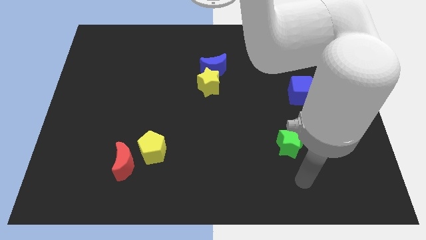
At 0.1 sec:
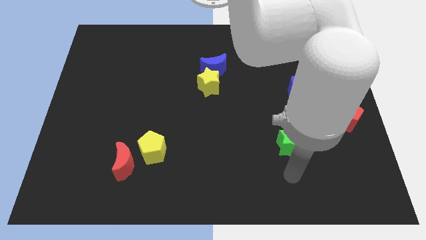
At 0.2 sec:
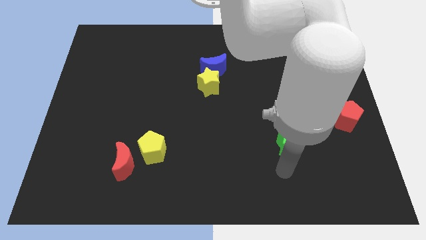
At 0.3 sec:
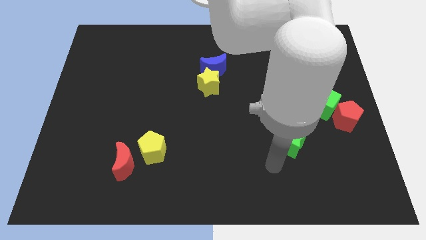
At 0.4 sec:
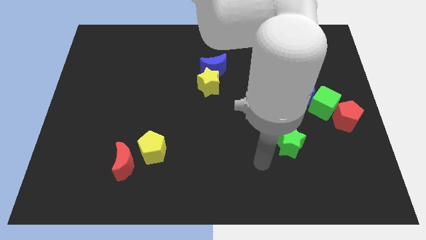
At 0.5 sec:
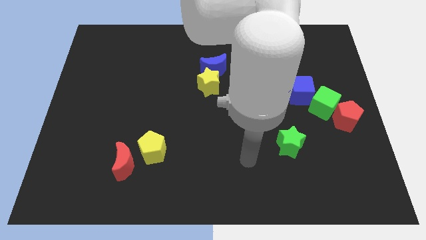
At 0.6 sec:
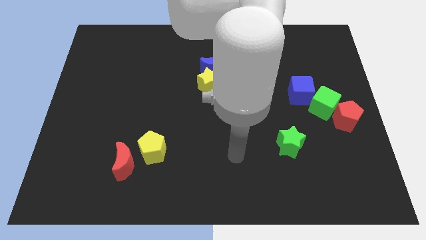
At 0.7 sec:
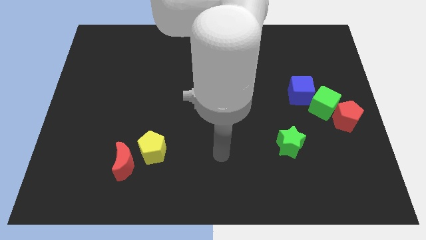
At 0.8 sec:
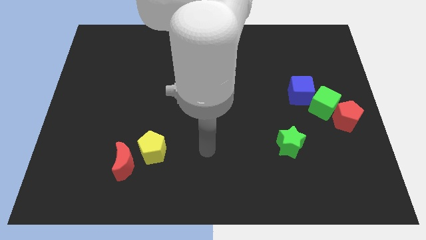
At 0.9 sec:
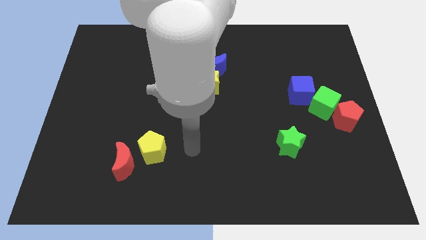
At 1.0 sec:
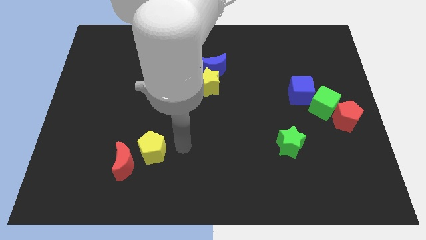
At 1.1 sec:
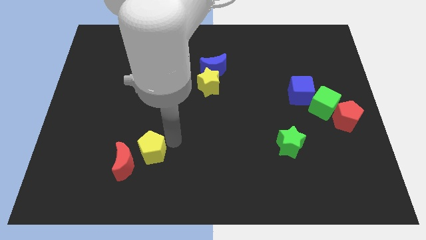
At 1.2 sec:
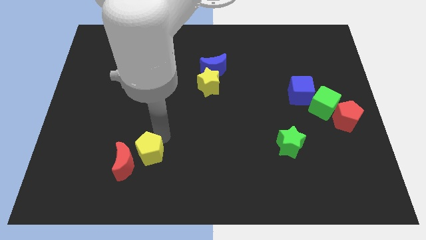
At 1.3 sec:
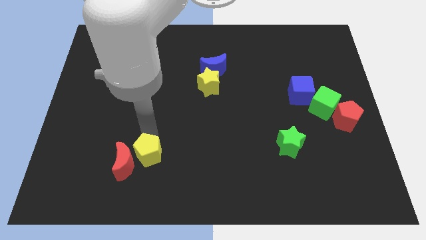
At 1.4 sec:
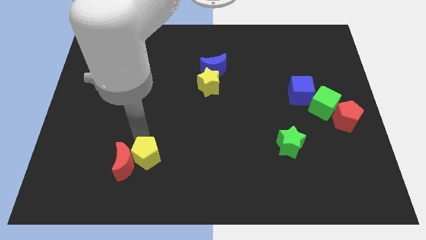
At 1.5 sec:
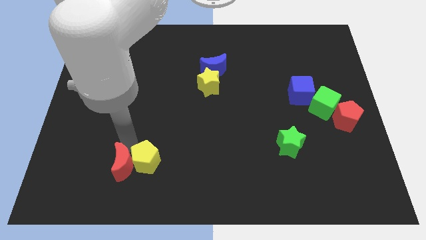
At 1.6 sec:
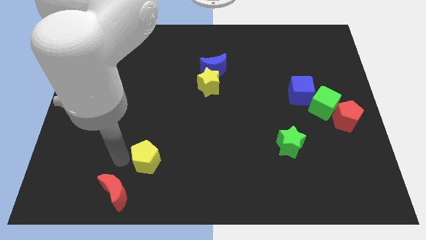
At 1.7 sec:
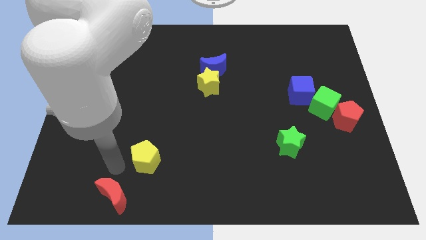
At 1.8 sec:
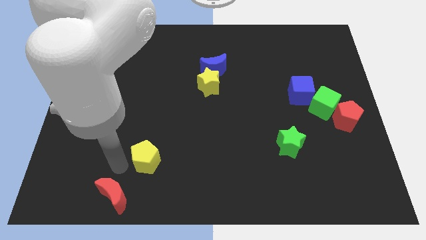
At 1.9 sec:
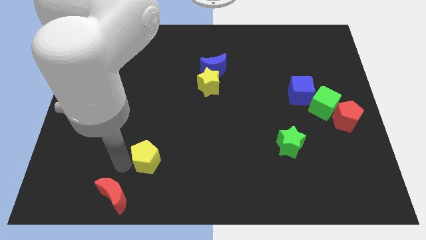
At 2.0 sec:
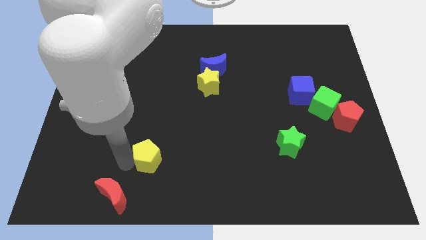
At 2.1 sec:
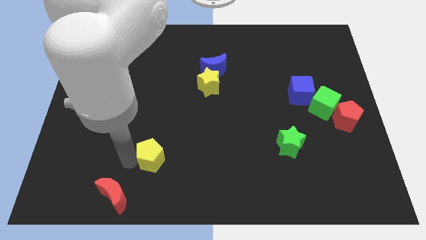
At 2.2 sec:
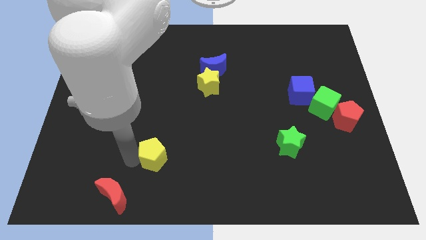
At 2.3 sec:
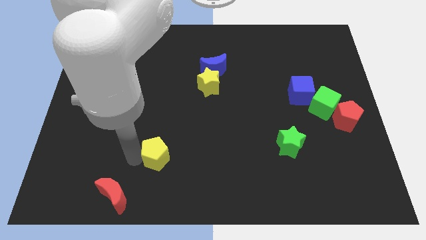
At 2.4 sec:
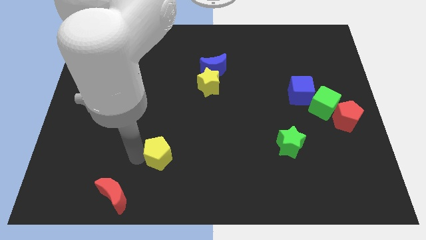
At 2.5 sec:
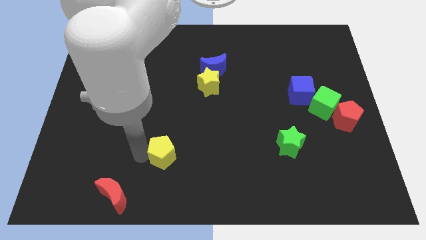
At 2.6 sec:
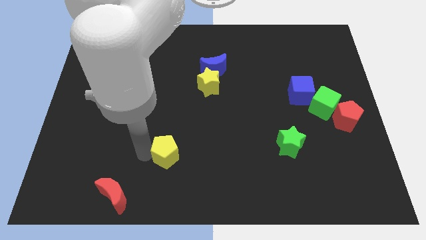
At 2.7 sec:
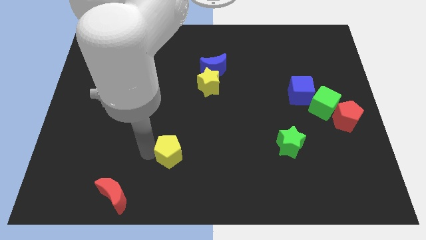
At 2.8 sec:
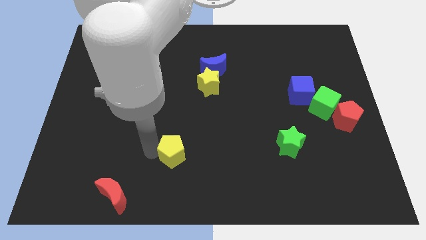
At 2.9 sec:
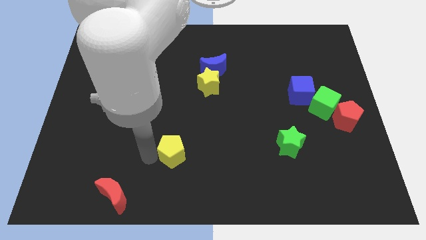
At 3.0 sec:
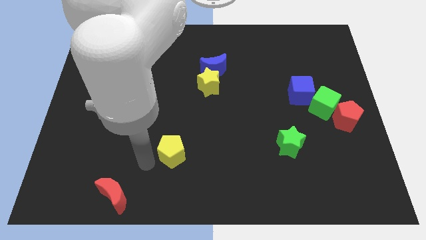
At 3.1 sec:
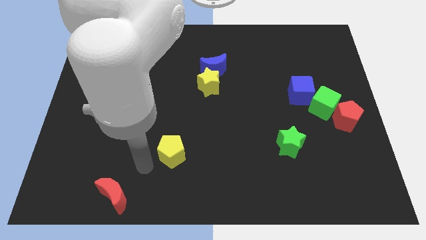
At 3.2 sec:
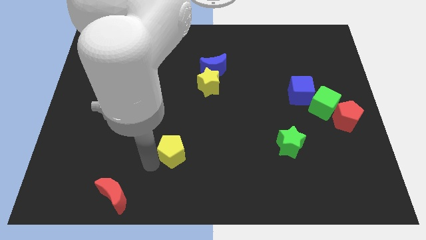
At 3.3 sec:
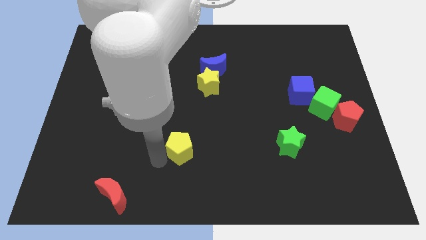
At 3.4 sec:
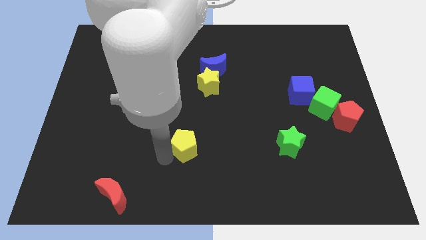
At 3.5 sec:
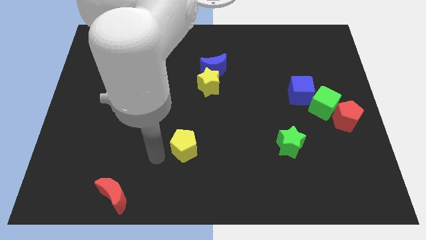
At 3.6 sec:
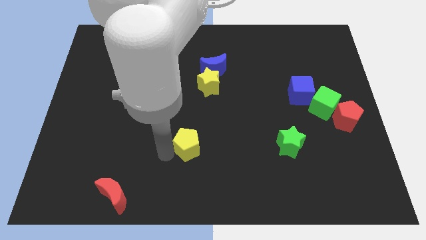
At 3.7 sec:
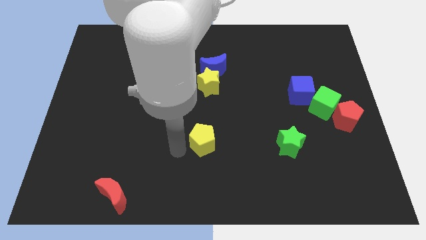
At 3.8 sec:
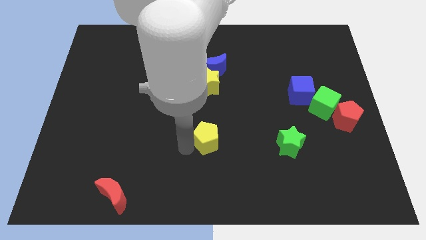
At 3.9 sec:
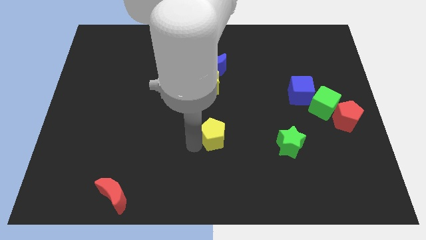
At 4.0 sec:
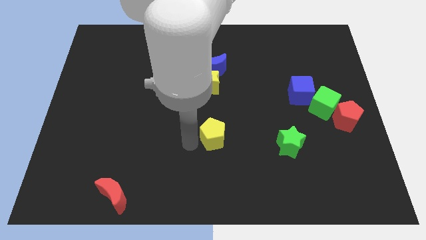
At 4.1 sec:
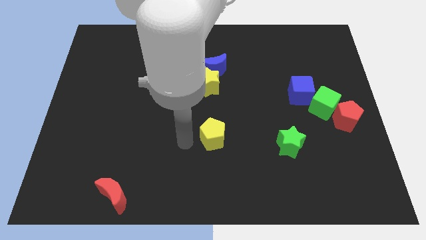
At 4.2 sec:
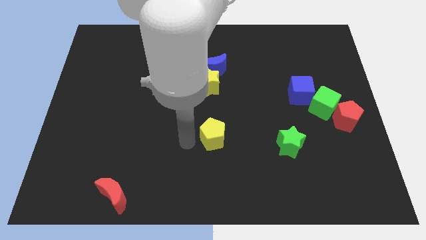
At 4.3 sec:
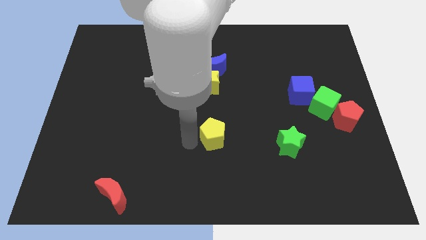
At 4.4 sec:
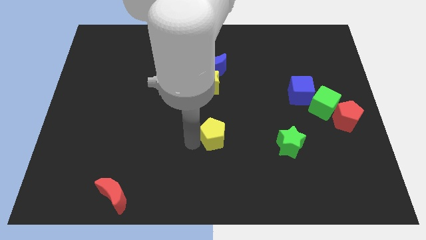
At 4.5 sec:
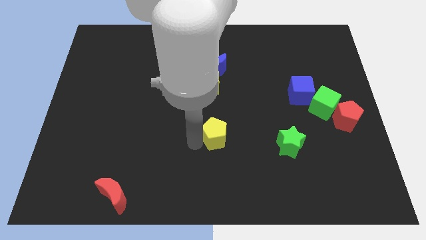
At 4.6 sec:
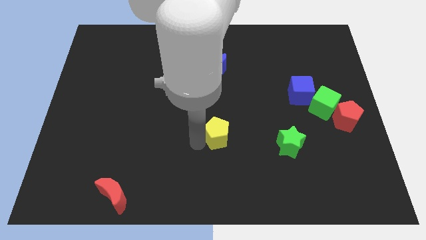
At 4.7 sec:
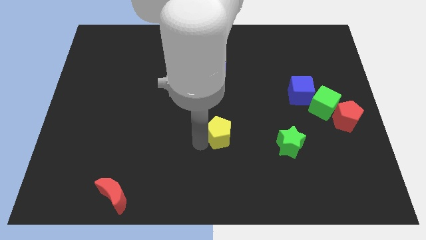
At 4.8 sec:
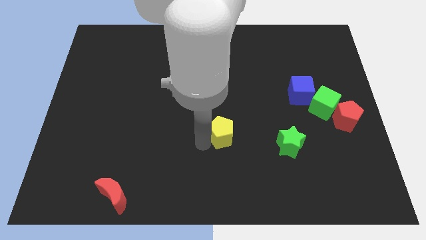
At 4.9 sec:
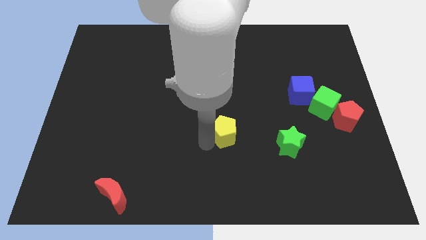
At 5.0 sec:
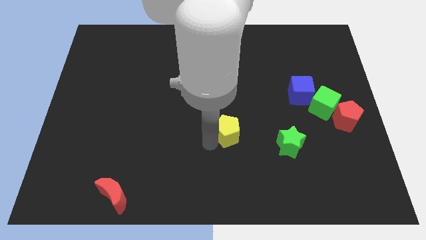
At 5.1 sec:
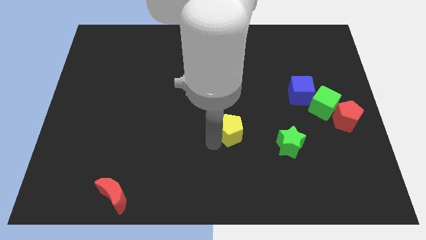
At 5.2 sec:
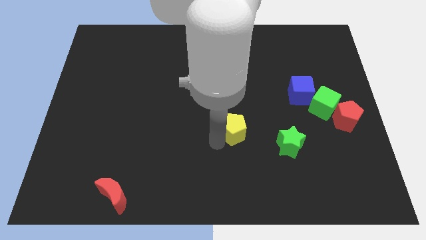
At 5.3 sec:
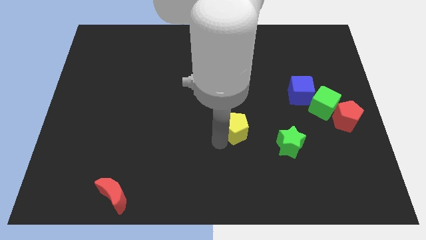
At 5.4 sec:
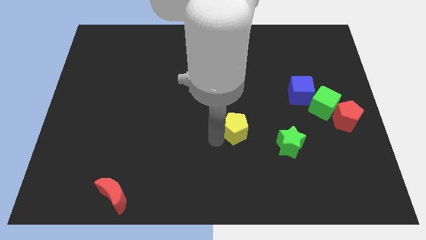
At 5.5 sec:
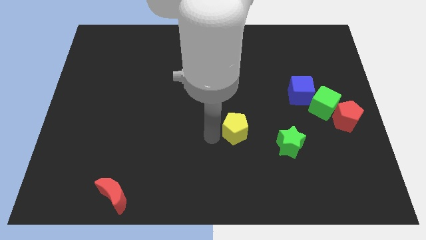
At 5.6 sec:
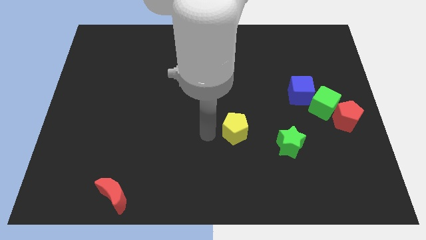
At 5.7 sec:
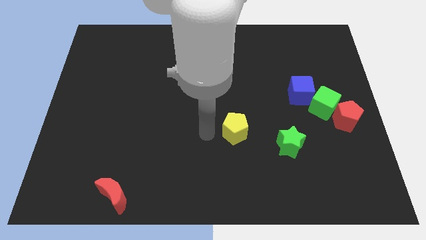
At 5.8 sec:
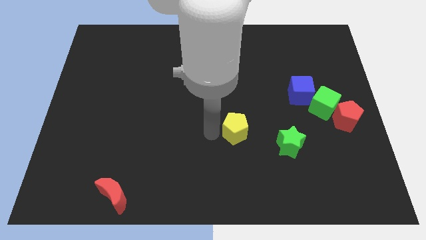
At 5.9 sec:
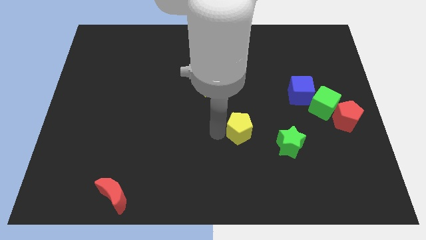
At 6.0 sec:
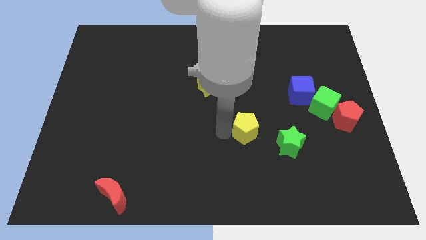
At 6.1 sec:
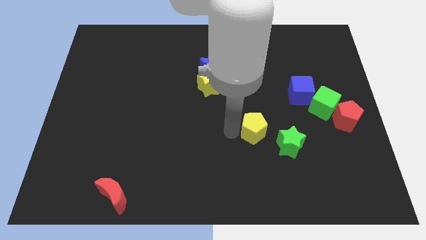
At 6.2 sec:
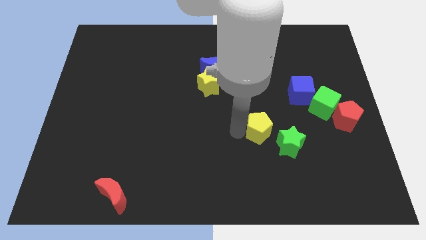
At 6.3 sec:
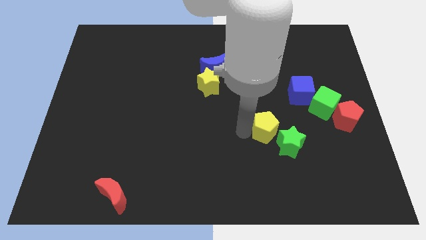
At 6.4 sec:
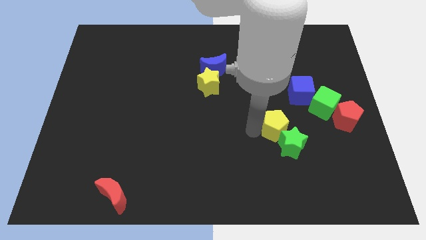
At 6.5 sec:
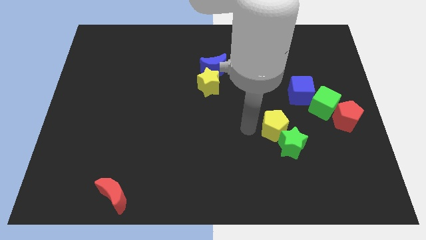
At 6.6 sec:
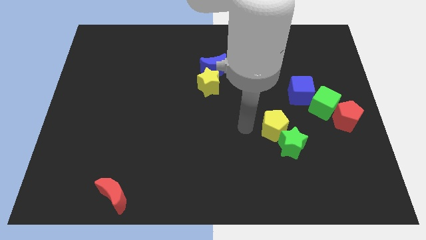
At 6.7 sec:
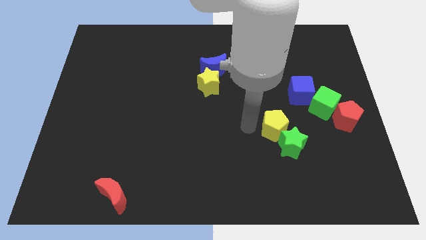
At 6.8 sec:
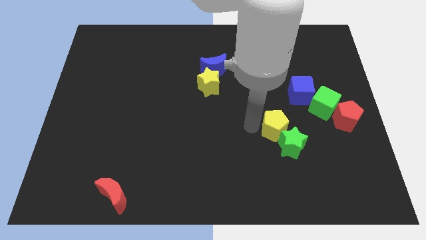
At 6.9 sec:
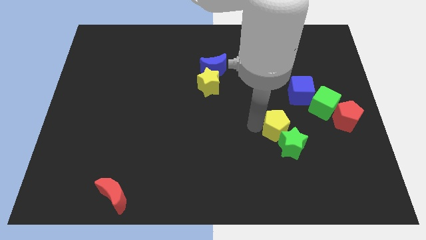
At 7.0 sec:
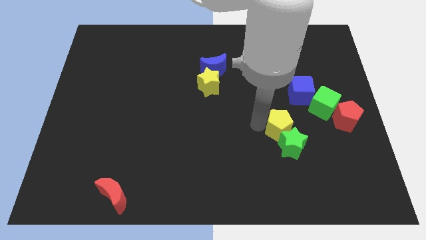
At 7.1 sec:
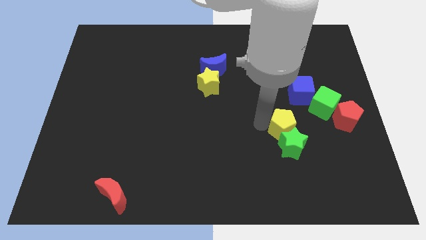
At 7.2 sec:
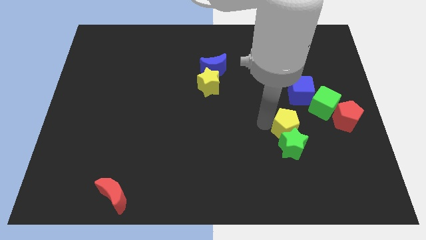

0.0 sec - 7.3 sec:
slide the yellow pentagon below the blue cube
